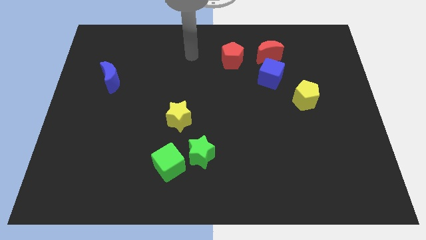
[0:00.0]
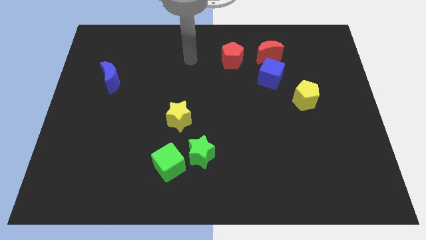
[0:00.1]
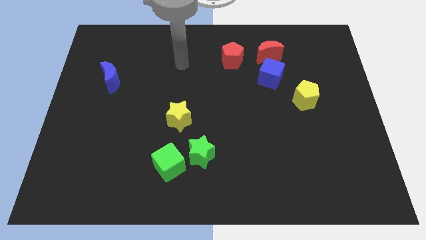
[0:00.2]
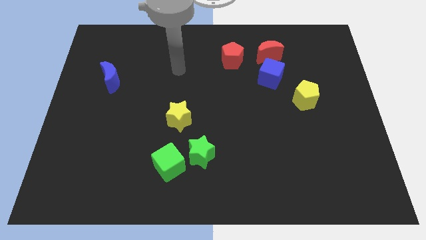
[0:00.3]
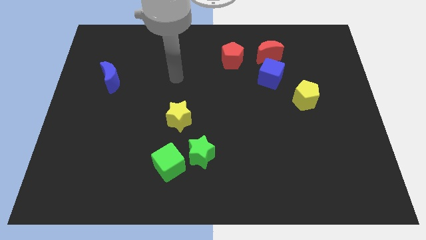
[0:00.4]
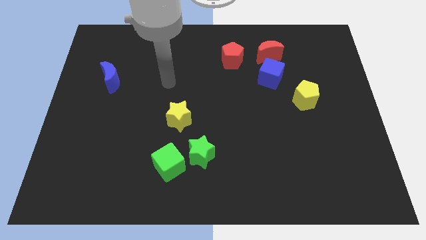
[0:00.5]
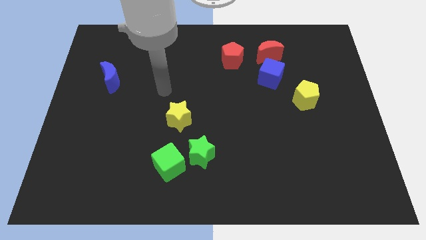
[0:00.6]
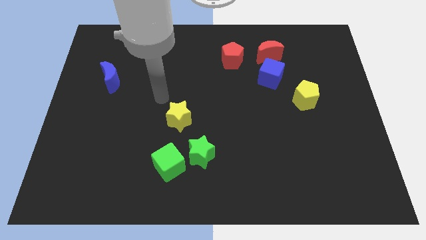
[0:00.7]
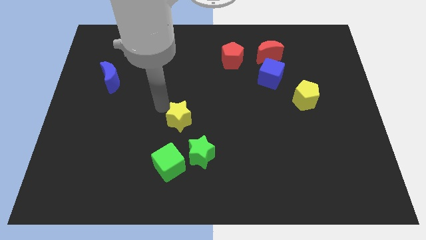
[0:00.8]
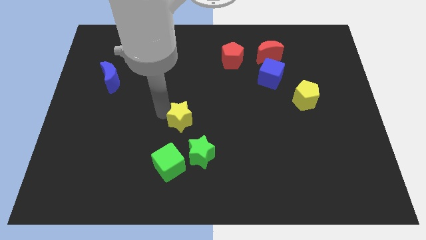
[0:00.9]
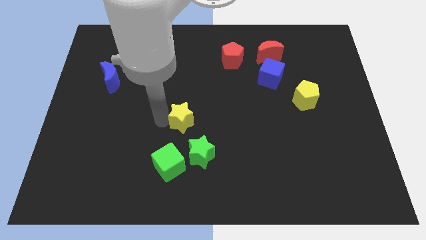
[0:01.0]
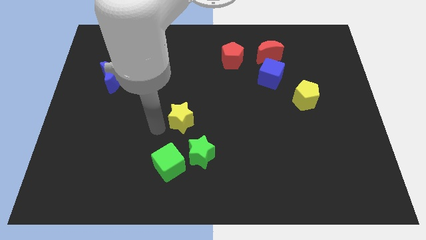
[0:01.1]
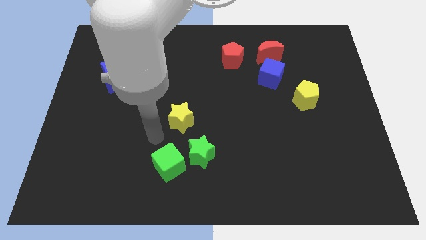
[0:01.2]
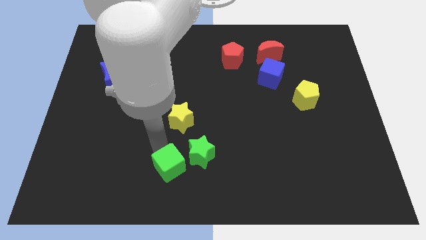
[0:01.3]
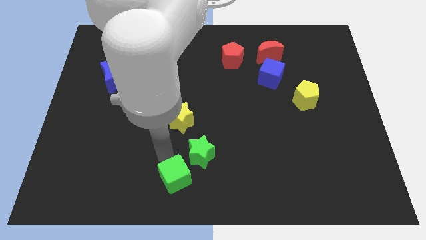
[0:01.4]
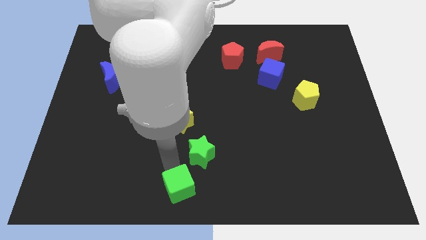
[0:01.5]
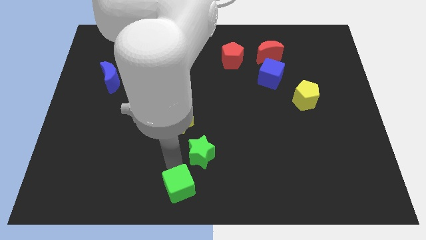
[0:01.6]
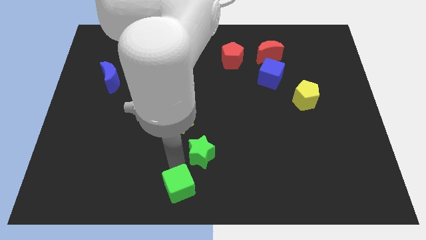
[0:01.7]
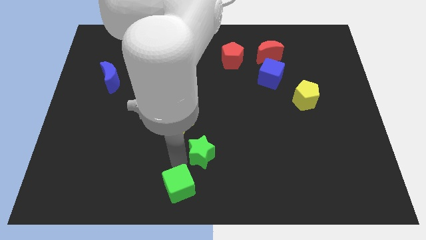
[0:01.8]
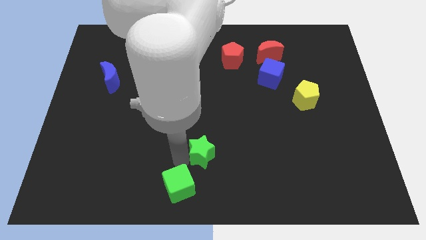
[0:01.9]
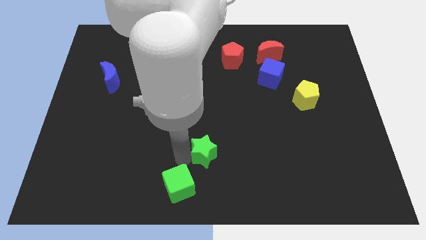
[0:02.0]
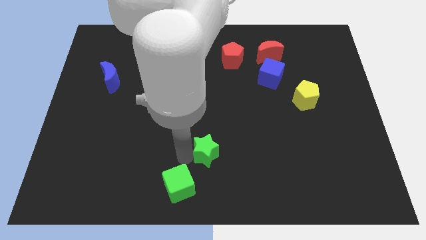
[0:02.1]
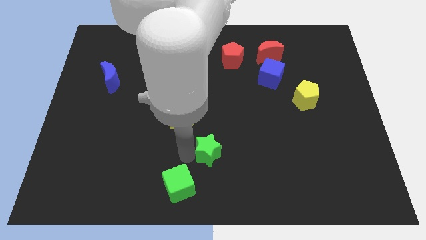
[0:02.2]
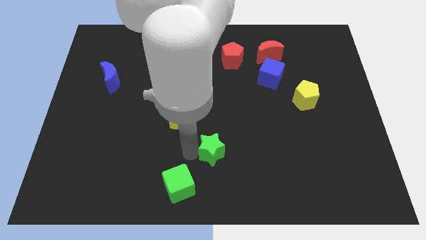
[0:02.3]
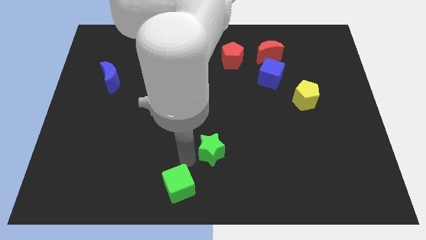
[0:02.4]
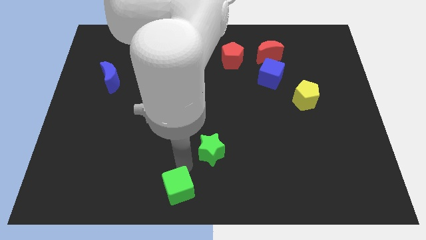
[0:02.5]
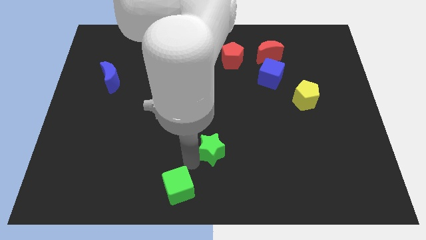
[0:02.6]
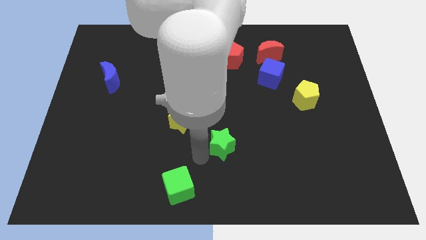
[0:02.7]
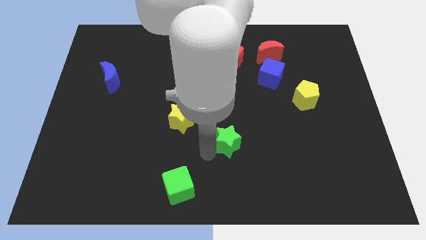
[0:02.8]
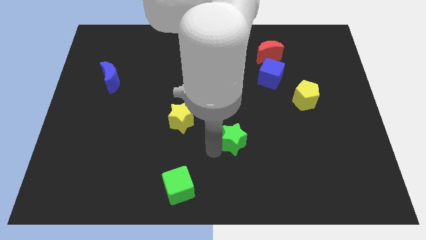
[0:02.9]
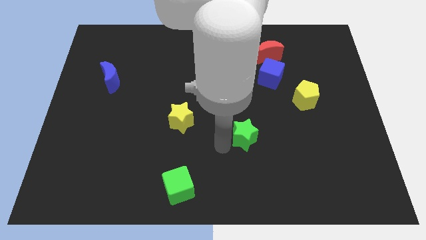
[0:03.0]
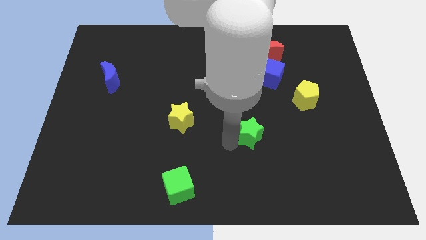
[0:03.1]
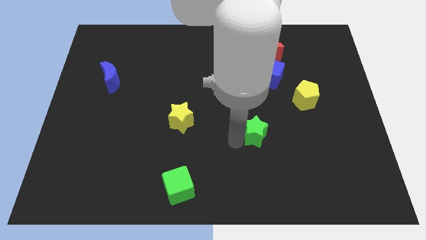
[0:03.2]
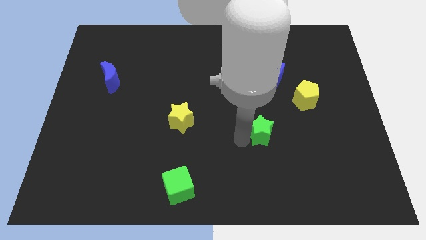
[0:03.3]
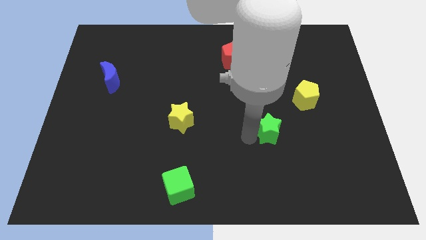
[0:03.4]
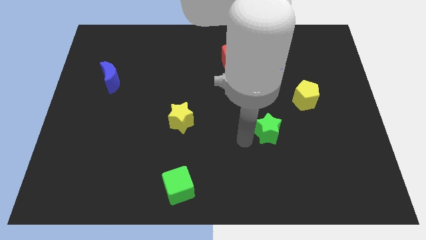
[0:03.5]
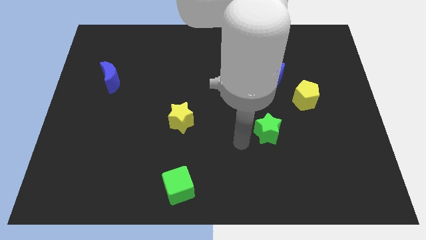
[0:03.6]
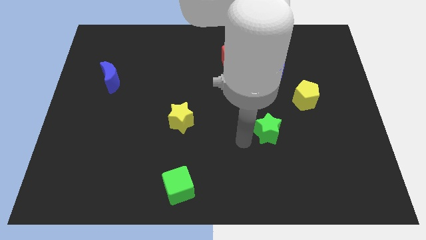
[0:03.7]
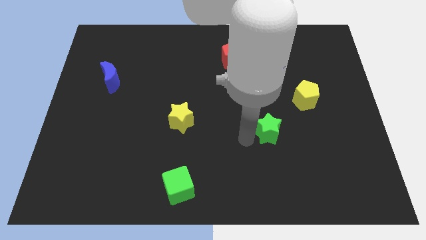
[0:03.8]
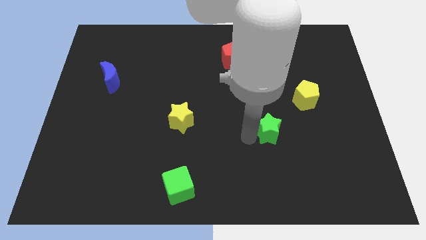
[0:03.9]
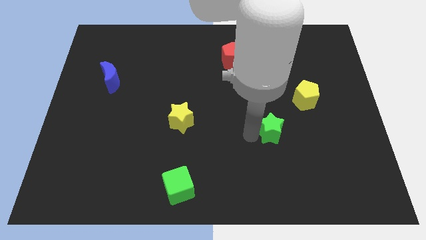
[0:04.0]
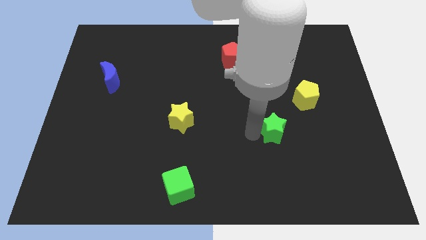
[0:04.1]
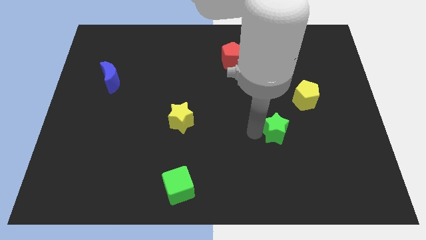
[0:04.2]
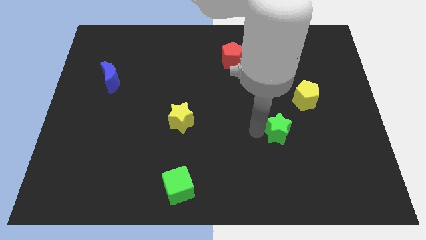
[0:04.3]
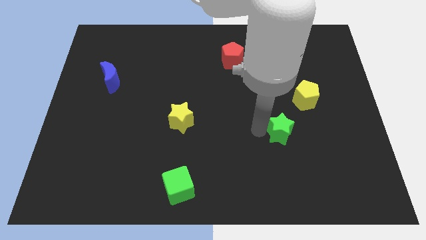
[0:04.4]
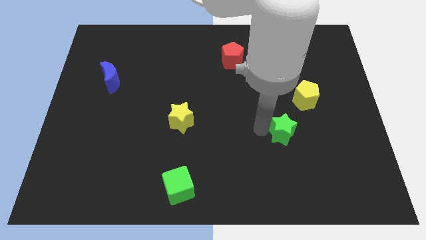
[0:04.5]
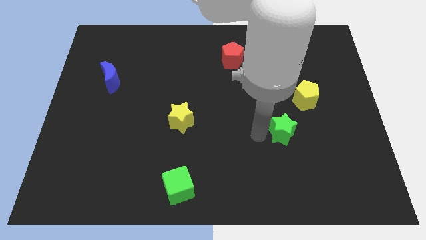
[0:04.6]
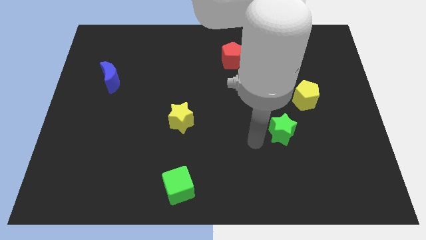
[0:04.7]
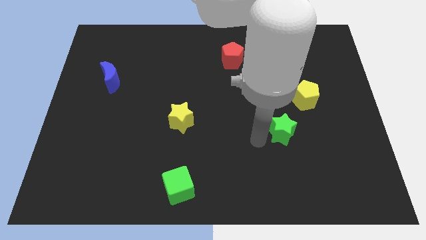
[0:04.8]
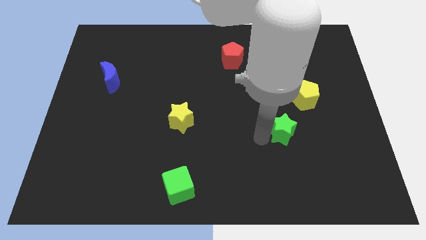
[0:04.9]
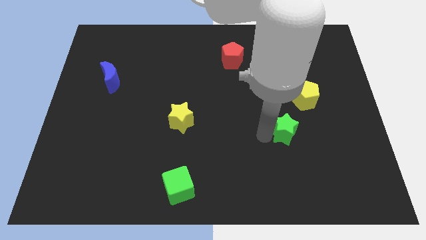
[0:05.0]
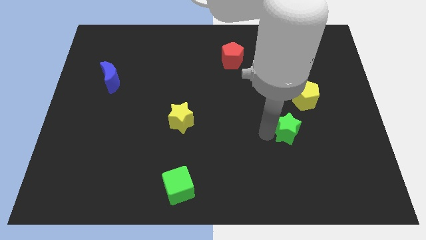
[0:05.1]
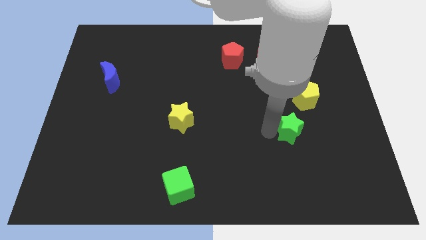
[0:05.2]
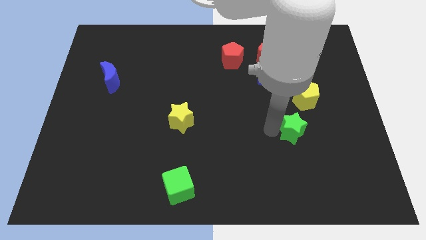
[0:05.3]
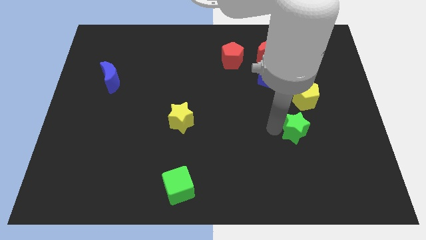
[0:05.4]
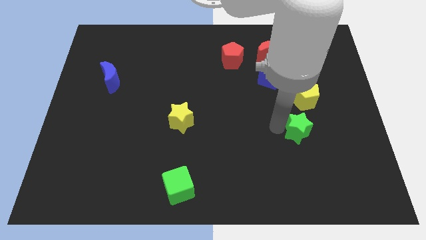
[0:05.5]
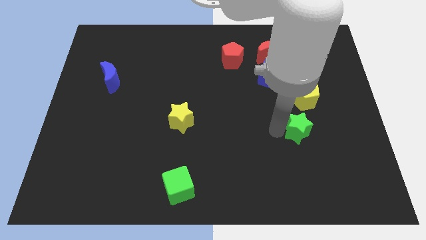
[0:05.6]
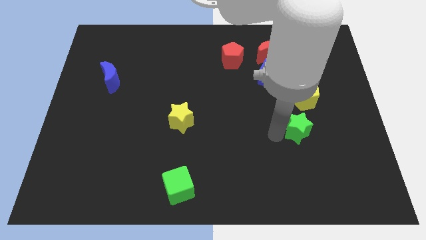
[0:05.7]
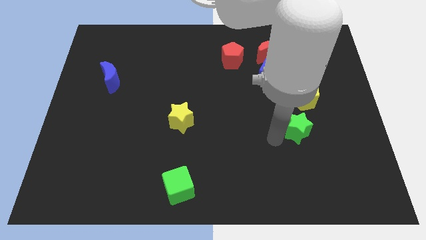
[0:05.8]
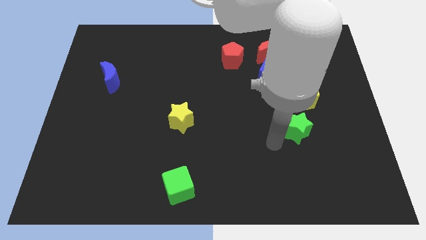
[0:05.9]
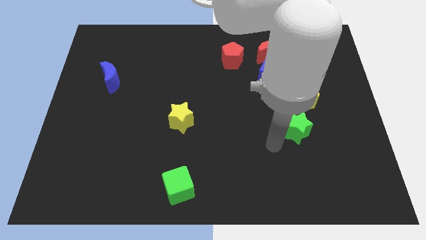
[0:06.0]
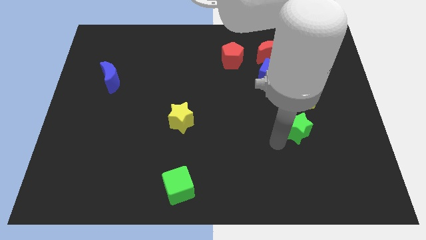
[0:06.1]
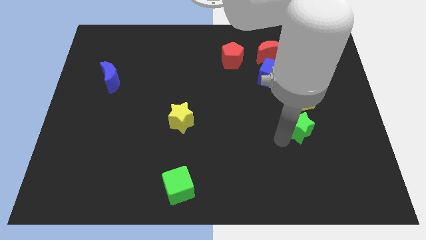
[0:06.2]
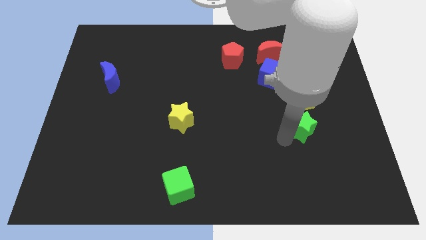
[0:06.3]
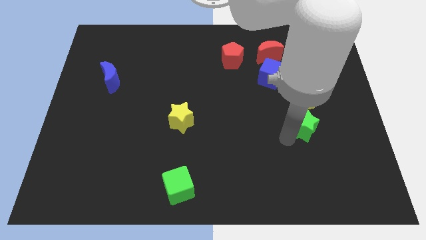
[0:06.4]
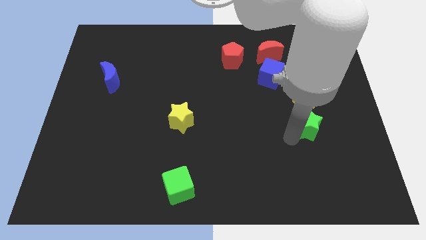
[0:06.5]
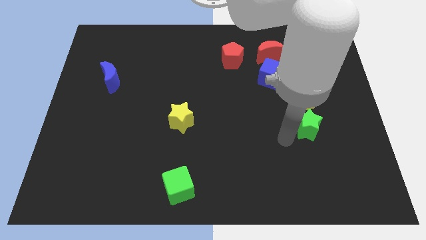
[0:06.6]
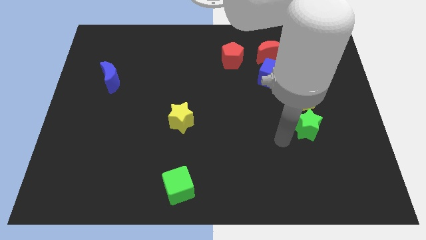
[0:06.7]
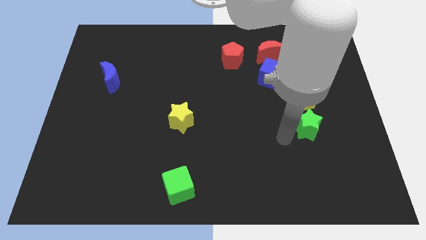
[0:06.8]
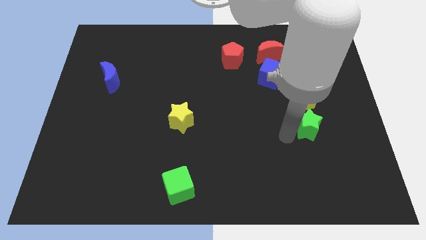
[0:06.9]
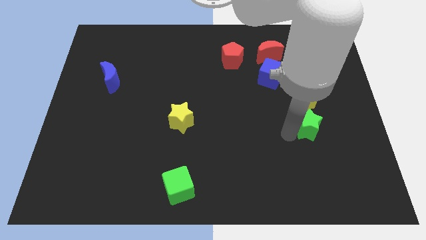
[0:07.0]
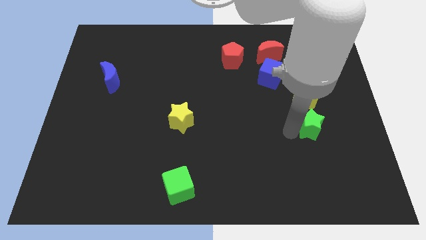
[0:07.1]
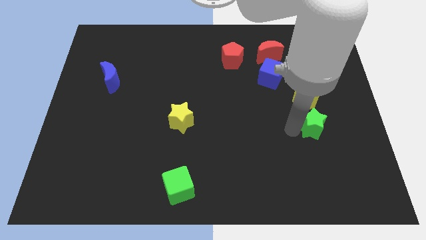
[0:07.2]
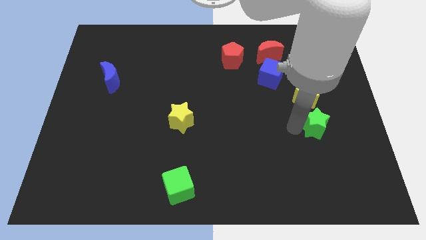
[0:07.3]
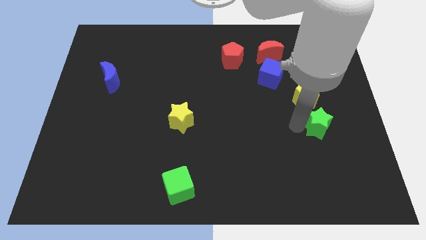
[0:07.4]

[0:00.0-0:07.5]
slide the green star diagonally down and to the right of the yellow pentagon
